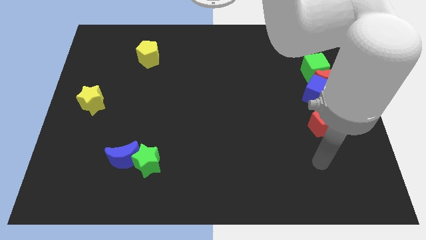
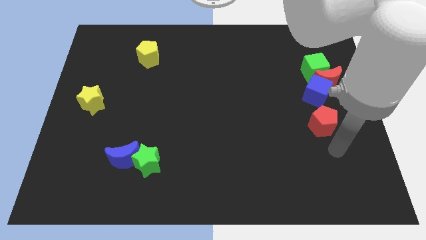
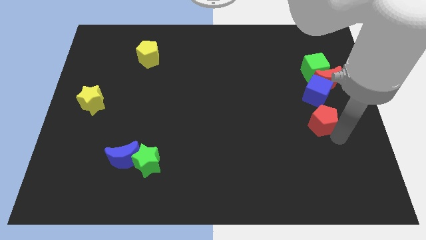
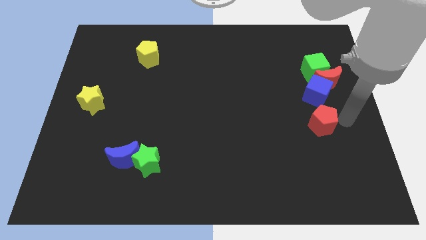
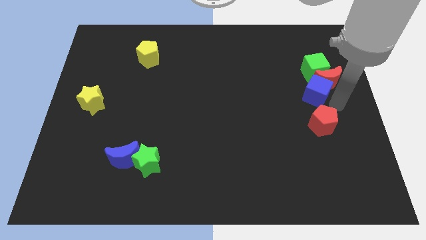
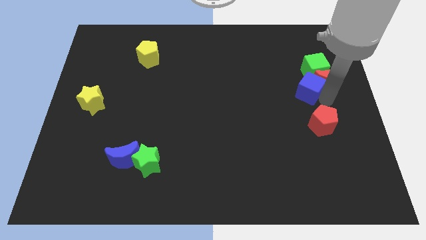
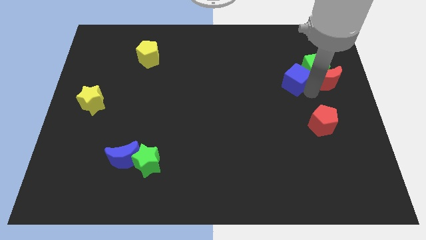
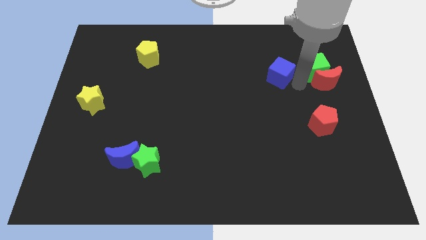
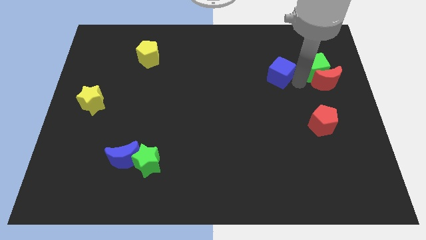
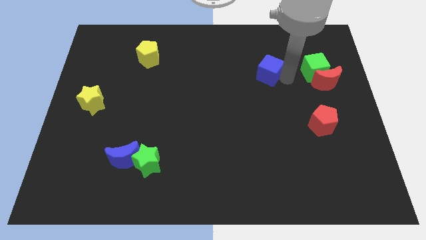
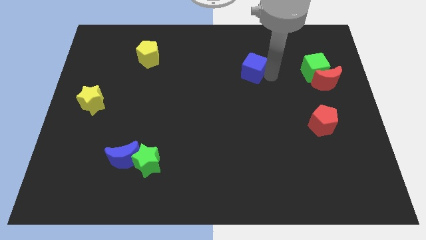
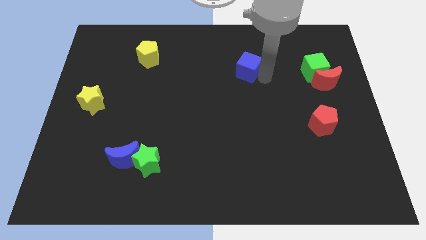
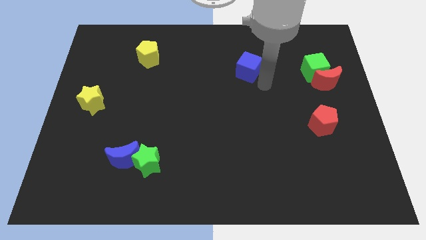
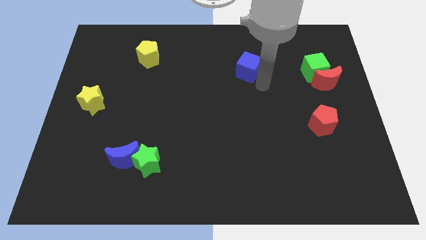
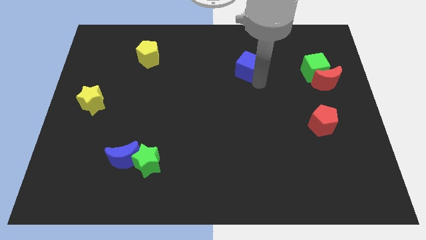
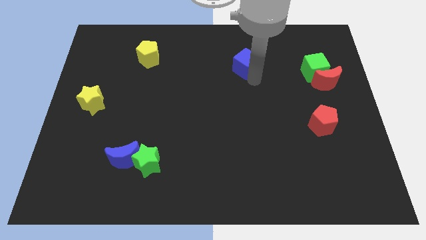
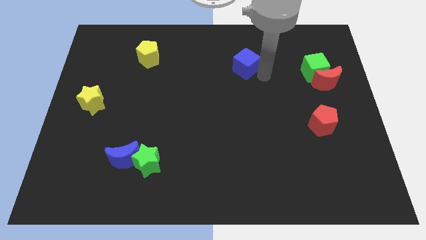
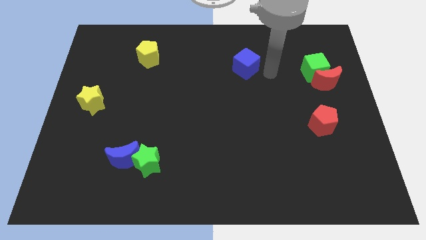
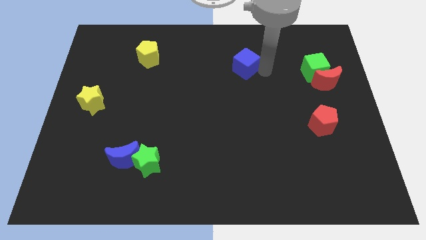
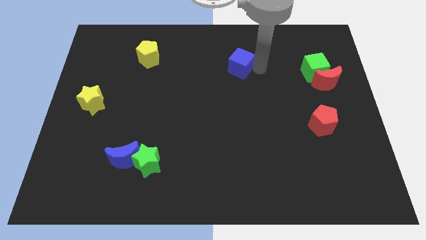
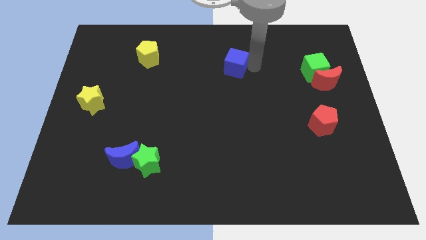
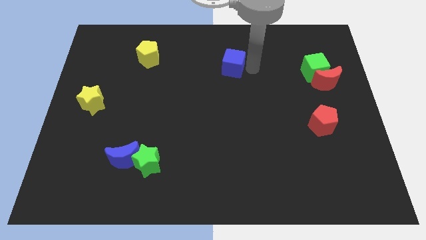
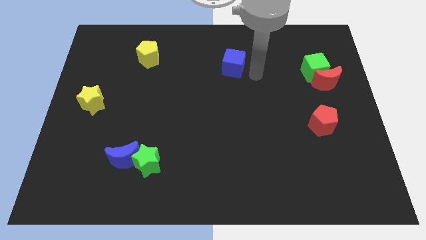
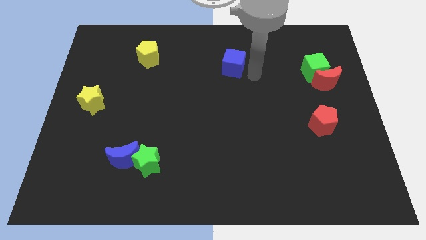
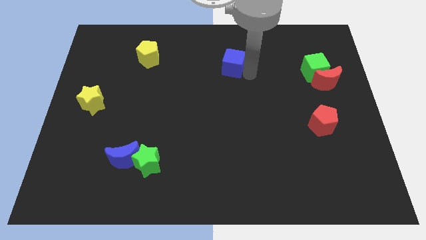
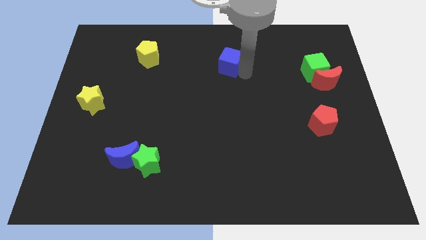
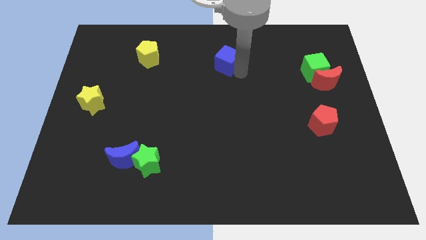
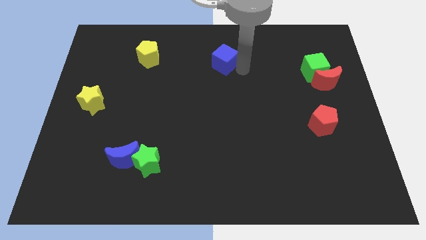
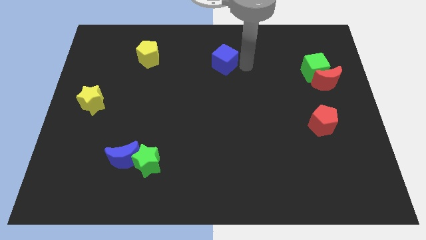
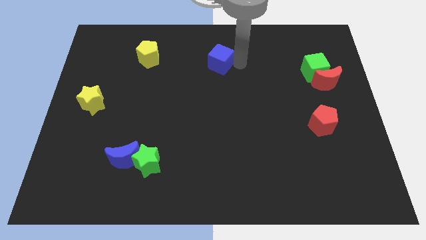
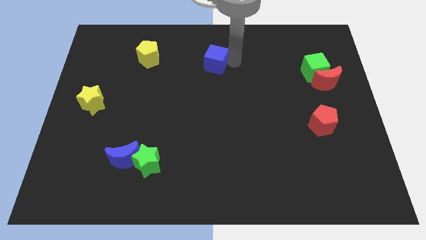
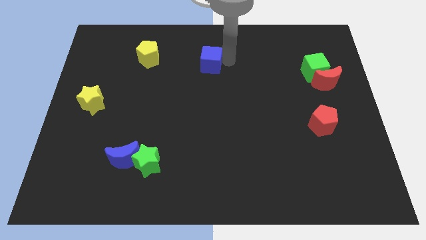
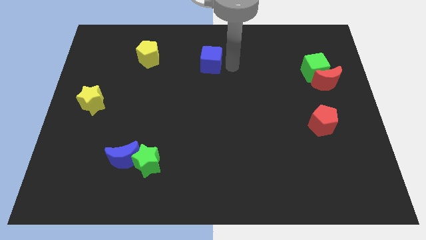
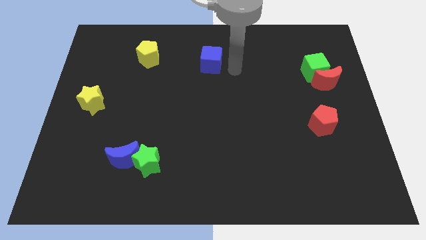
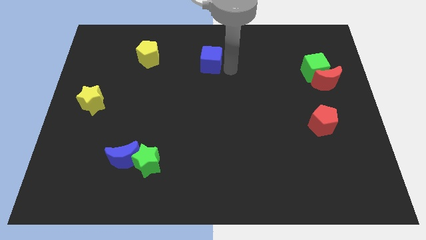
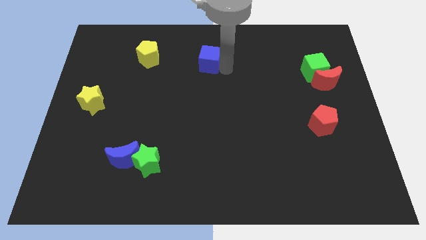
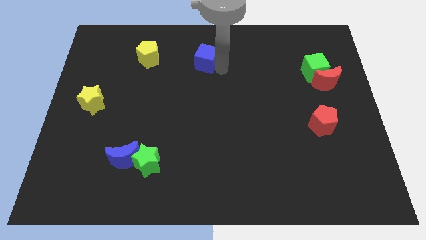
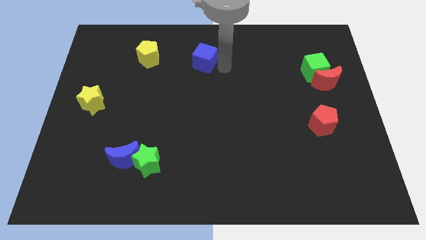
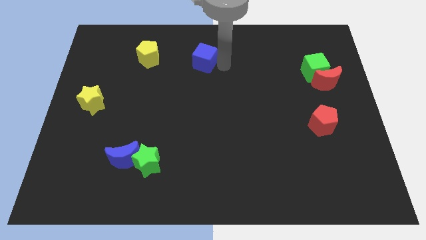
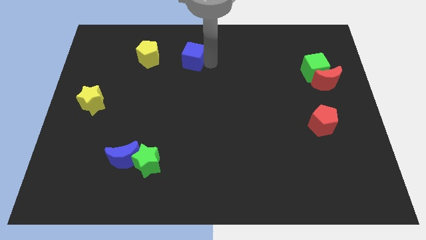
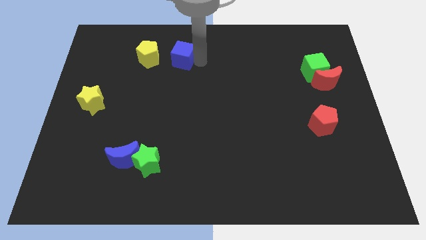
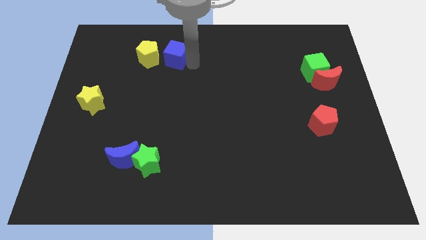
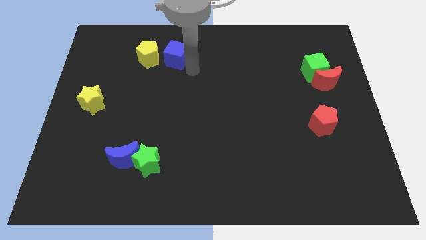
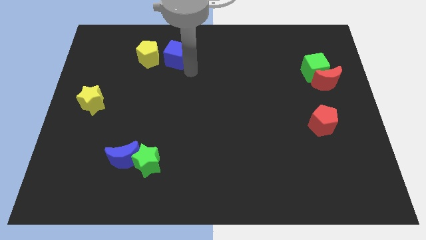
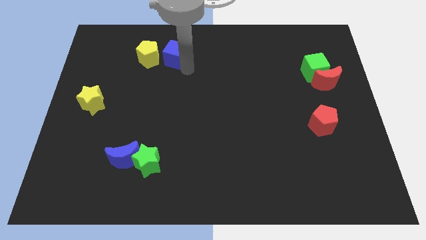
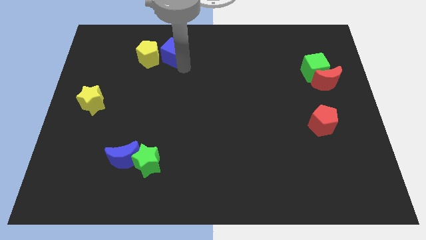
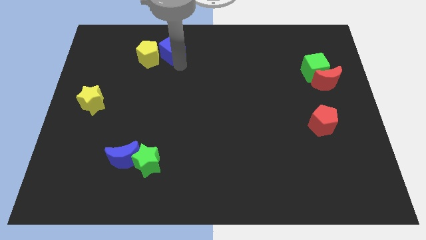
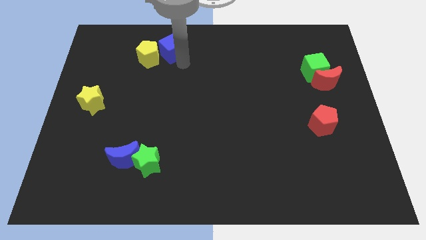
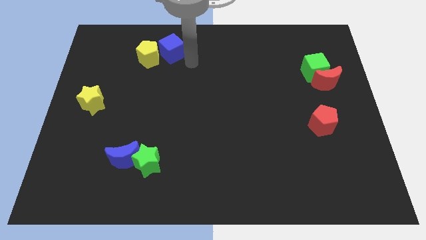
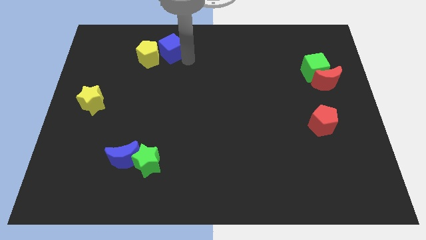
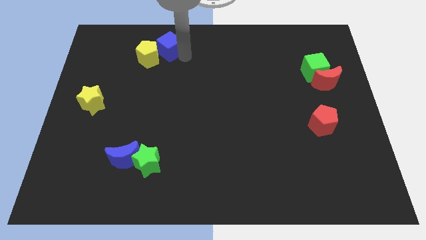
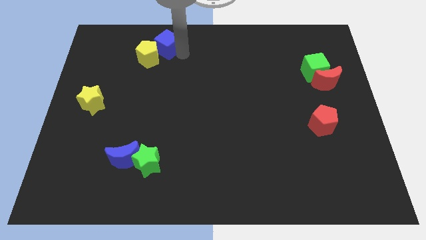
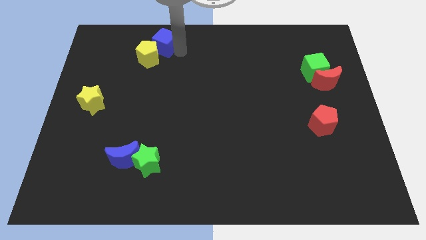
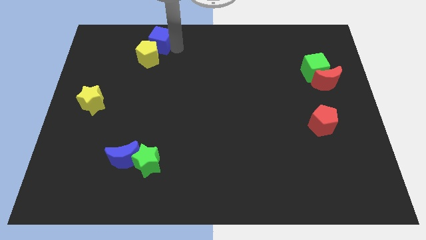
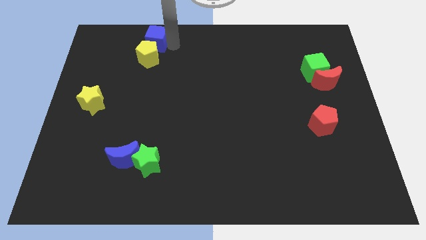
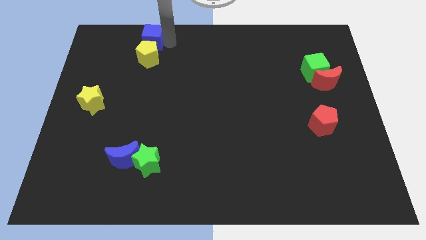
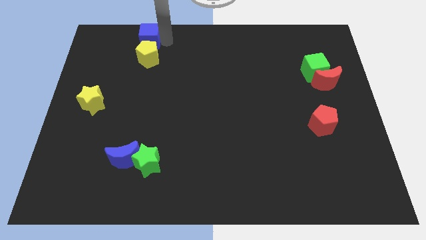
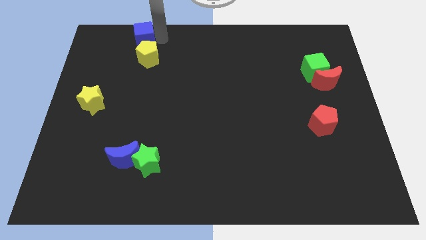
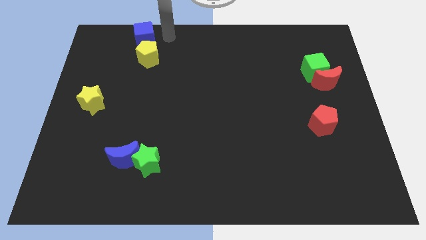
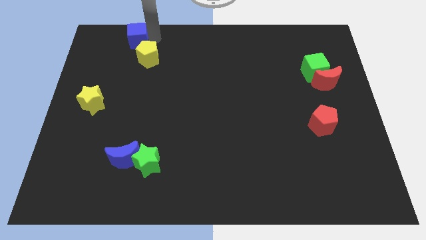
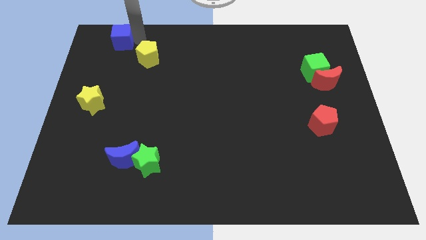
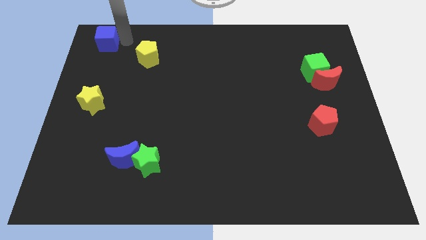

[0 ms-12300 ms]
push the blue cube to the top left

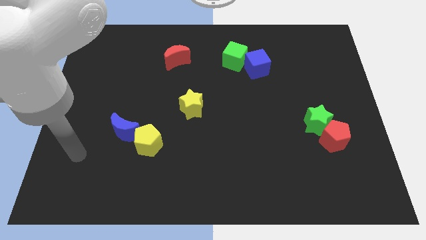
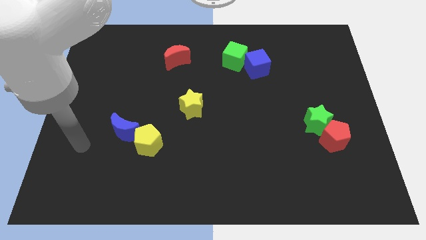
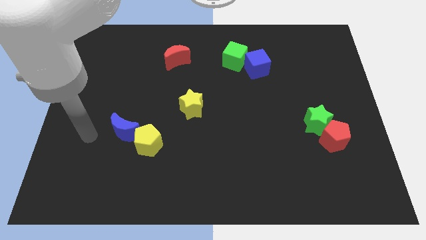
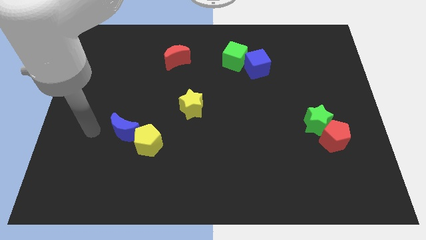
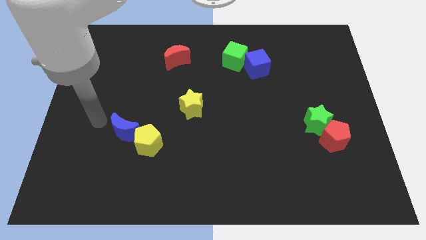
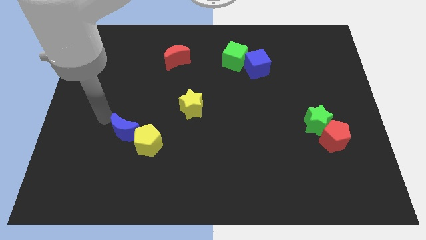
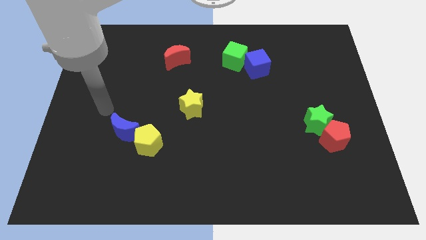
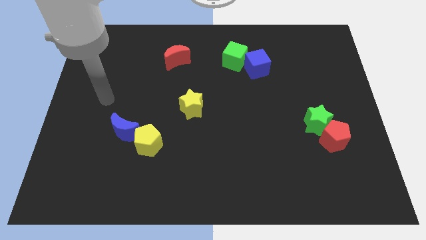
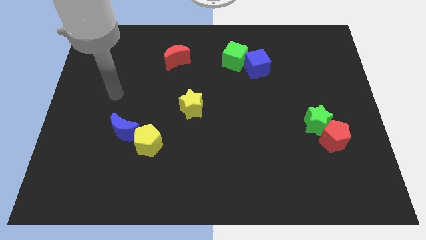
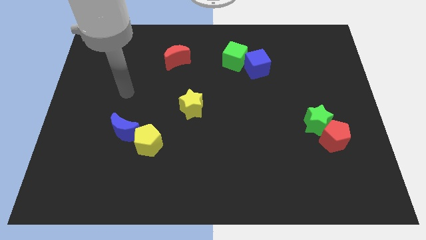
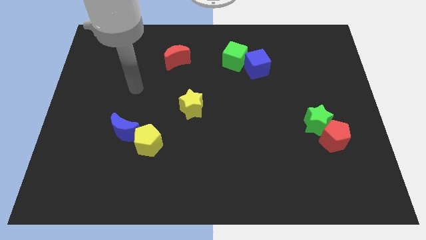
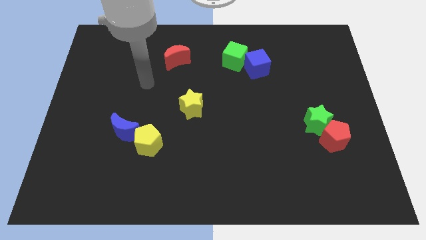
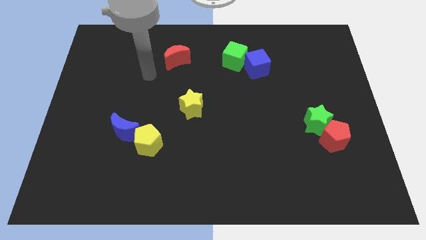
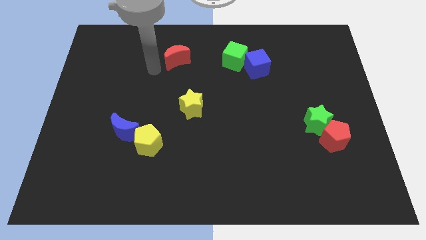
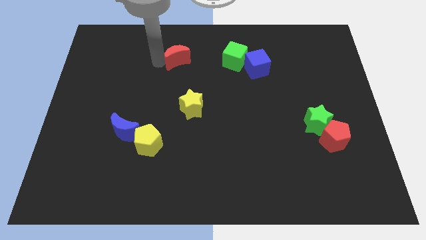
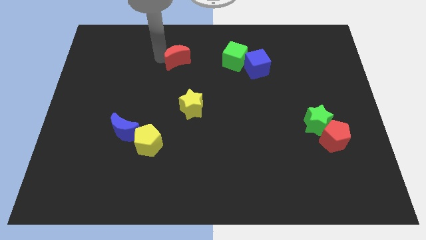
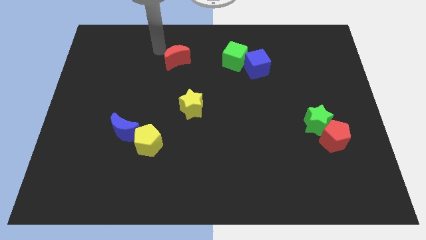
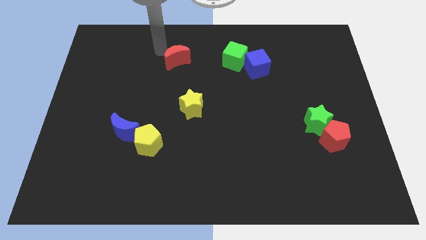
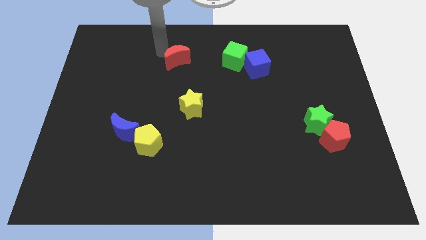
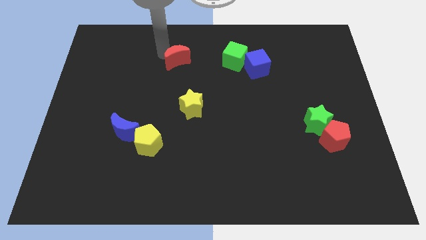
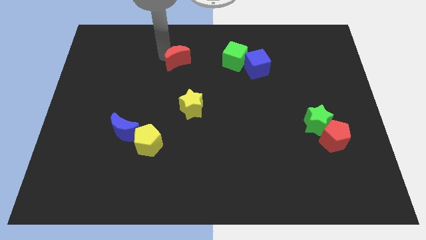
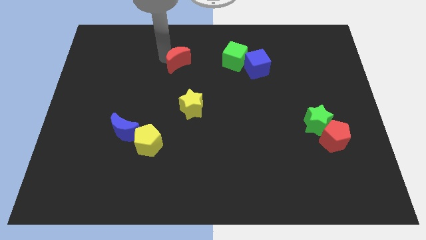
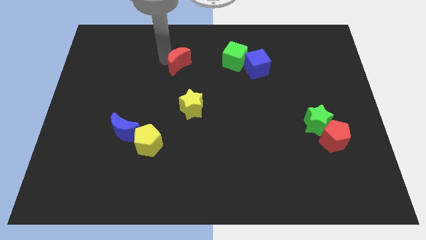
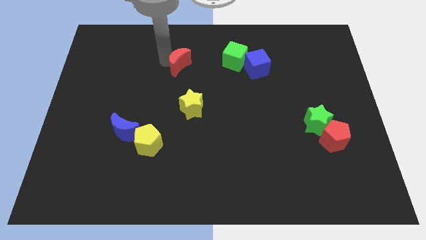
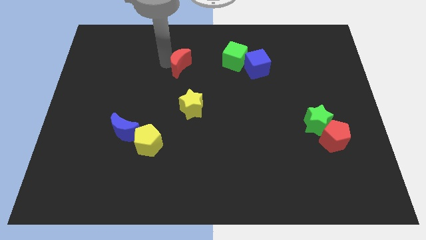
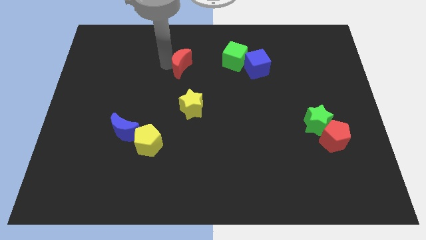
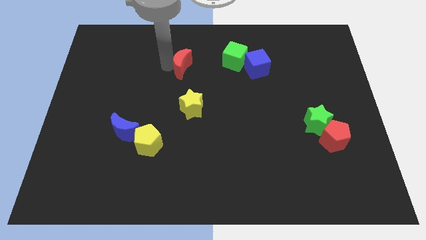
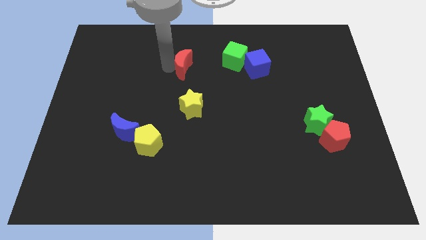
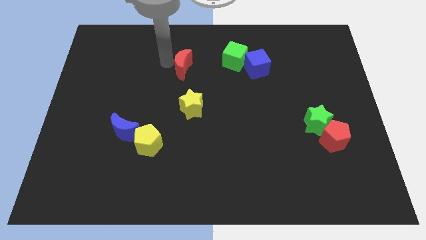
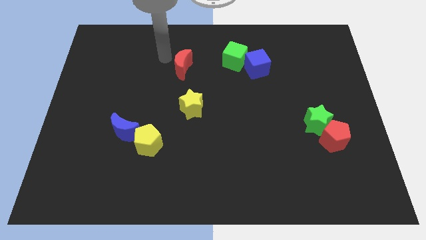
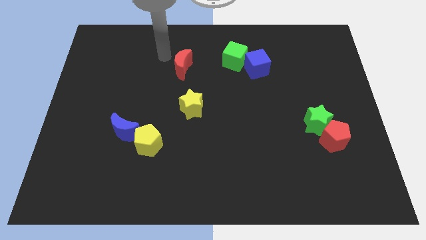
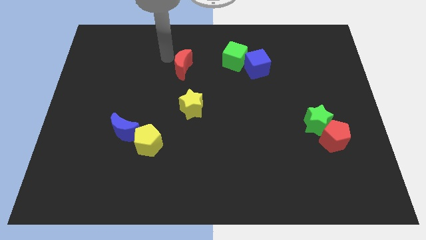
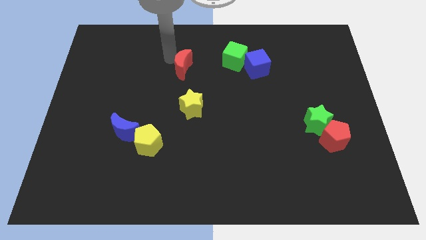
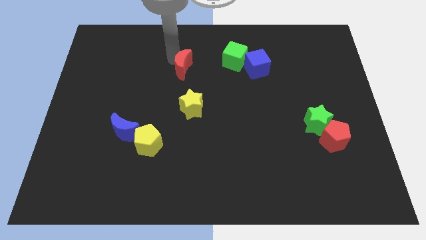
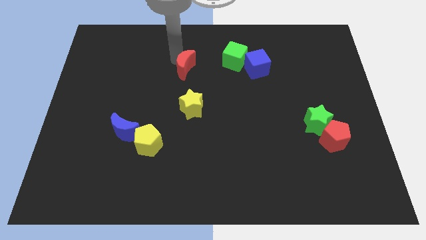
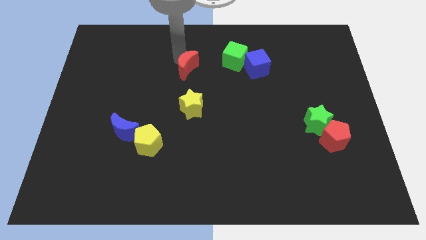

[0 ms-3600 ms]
push the red moon to the middle
